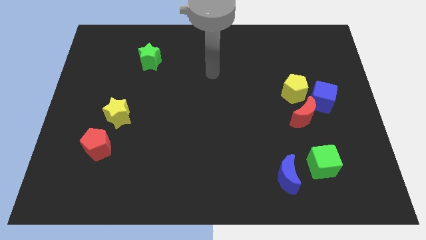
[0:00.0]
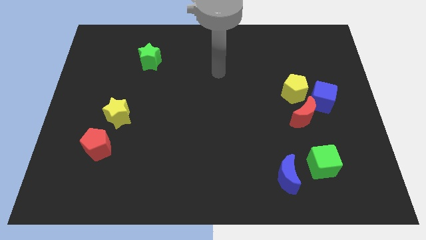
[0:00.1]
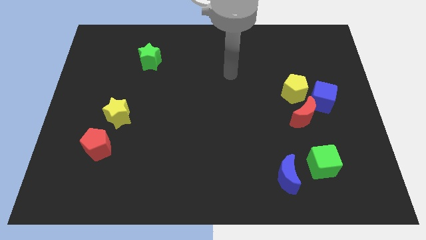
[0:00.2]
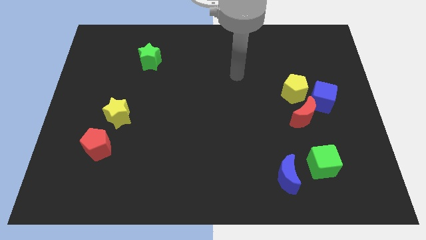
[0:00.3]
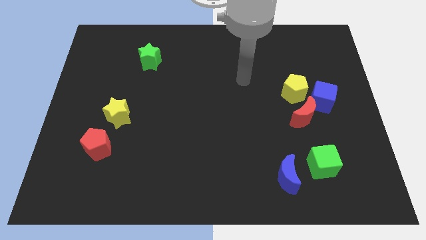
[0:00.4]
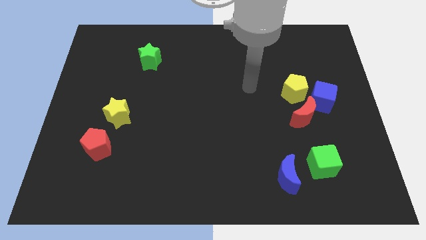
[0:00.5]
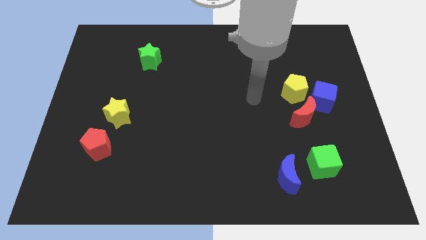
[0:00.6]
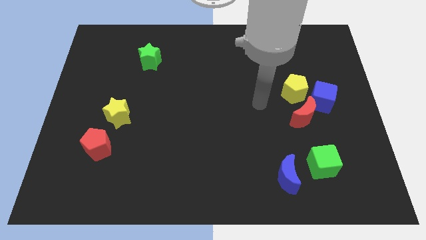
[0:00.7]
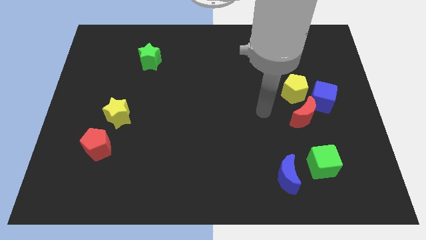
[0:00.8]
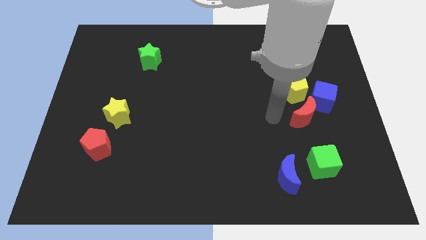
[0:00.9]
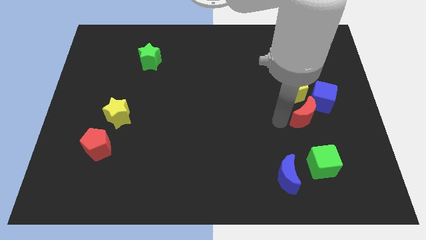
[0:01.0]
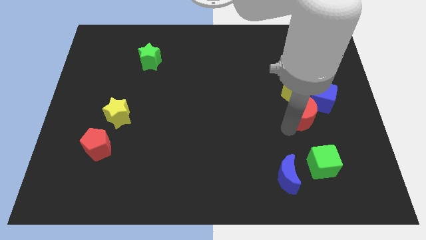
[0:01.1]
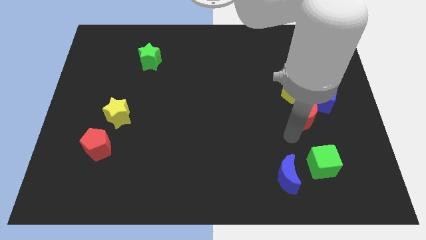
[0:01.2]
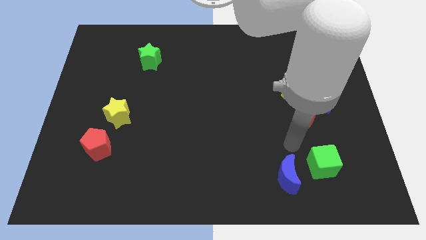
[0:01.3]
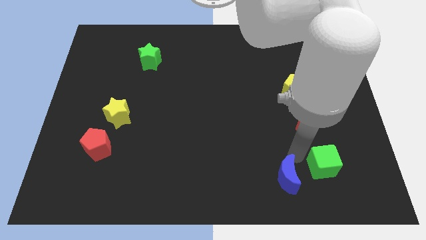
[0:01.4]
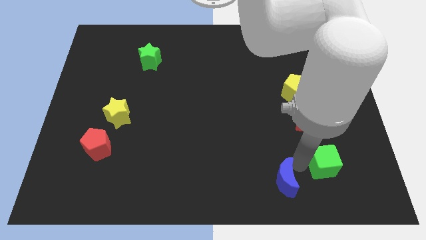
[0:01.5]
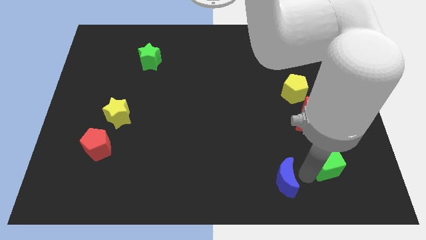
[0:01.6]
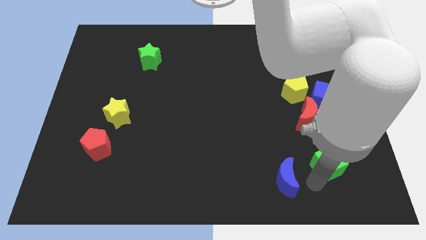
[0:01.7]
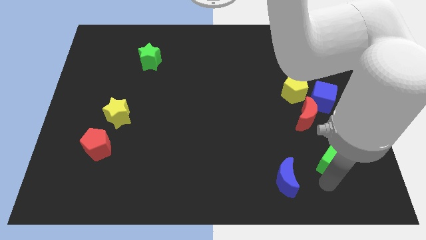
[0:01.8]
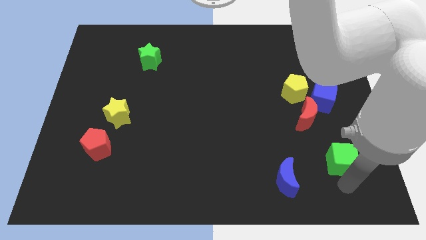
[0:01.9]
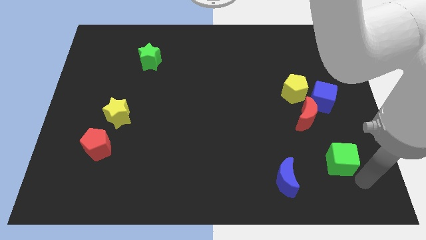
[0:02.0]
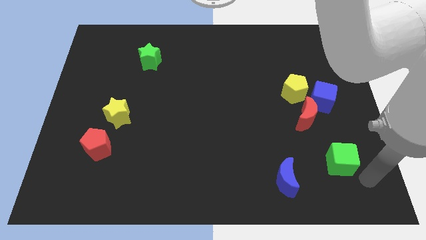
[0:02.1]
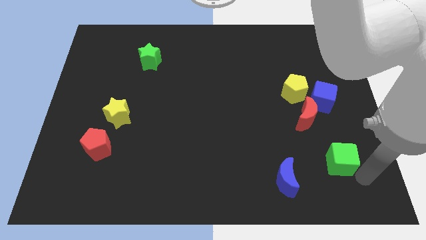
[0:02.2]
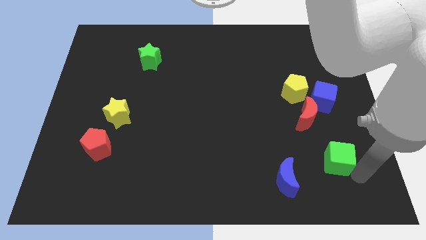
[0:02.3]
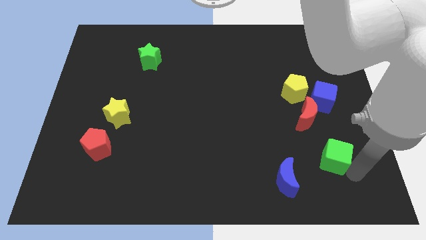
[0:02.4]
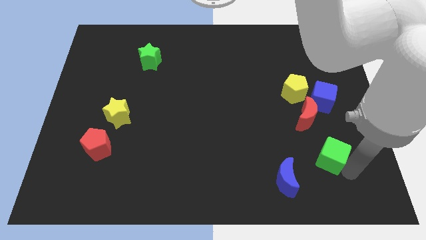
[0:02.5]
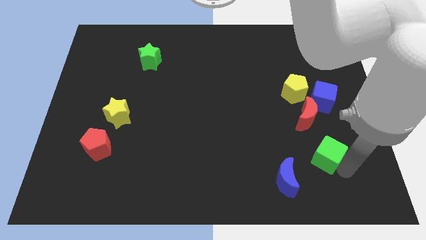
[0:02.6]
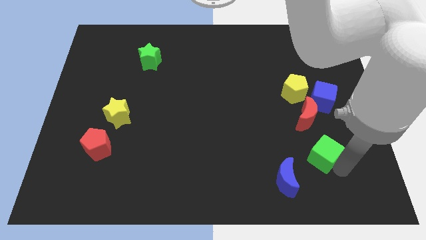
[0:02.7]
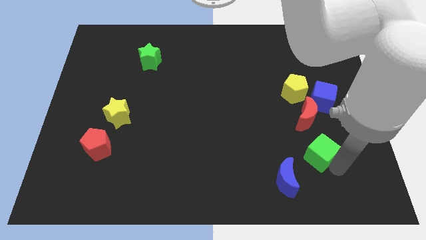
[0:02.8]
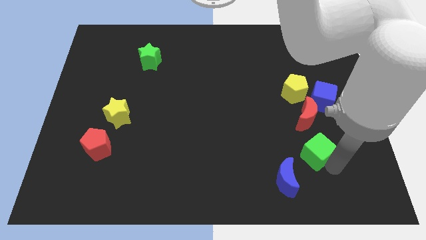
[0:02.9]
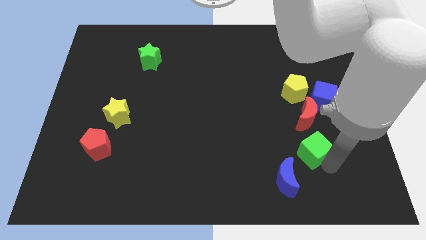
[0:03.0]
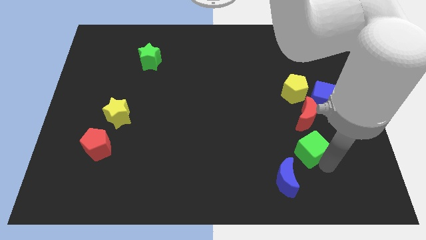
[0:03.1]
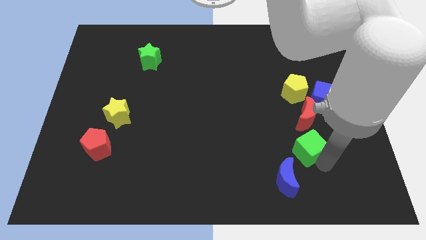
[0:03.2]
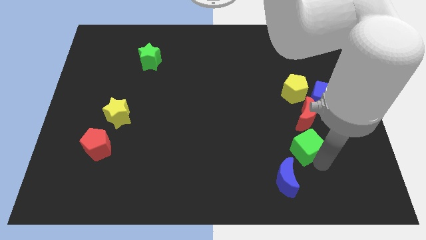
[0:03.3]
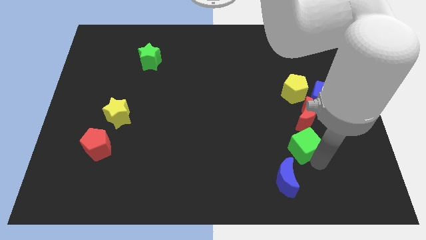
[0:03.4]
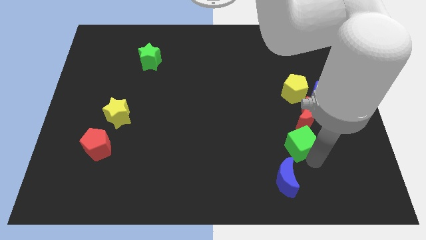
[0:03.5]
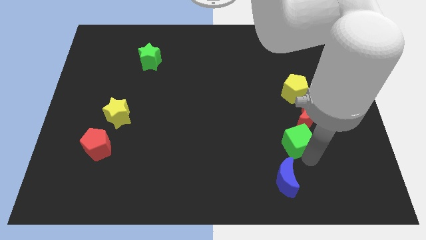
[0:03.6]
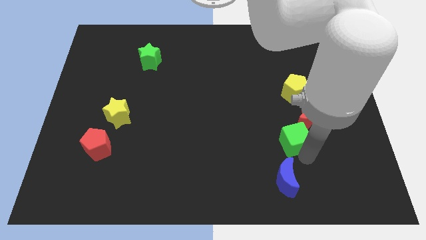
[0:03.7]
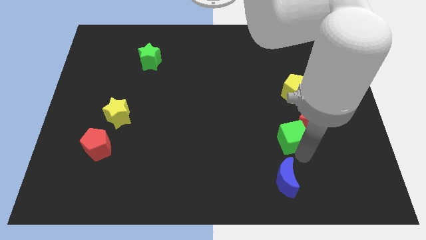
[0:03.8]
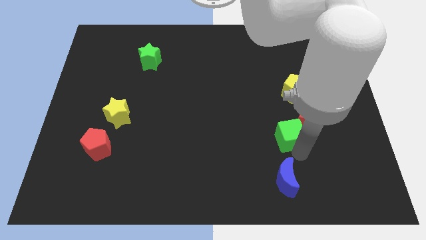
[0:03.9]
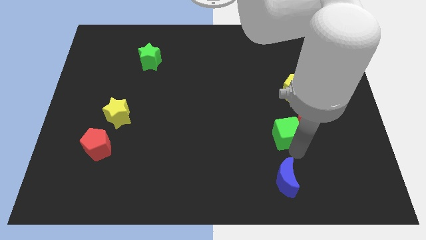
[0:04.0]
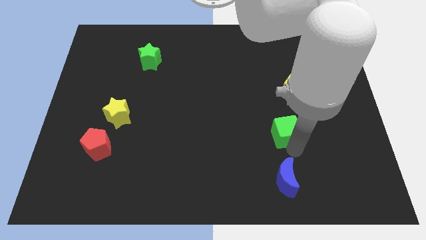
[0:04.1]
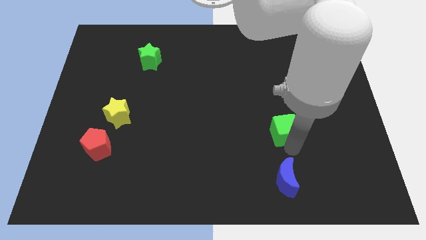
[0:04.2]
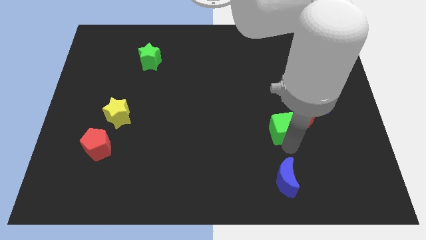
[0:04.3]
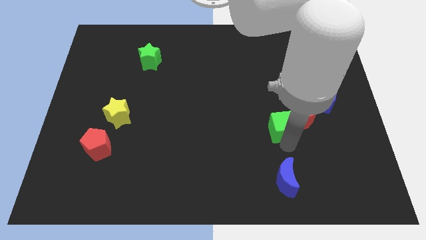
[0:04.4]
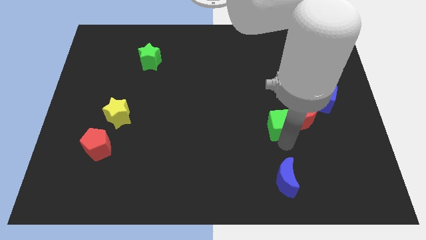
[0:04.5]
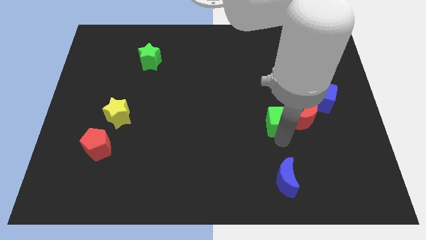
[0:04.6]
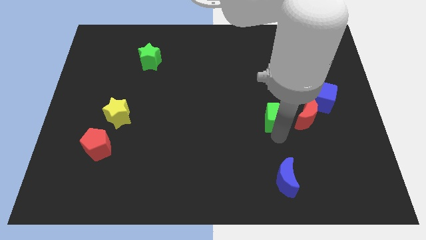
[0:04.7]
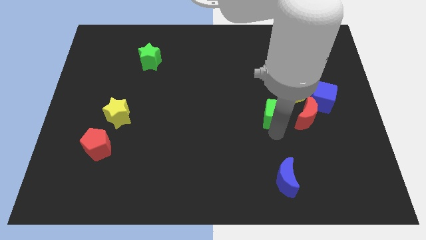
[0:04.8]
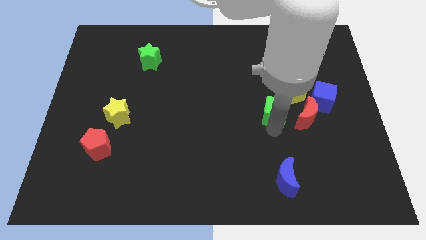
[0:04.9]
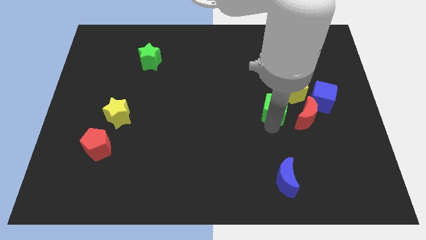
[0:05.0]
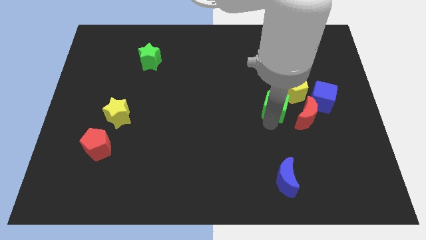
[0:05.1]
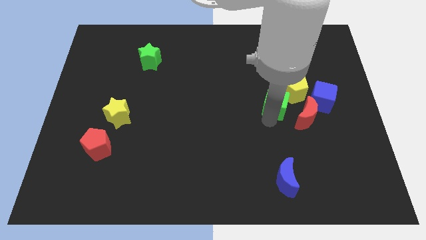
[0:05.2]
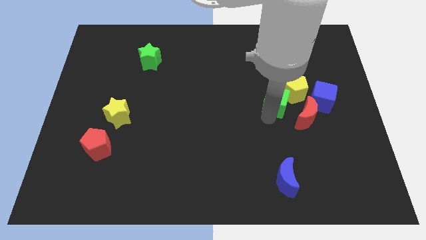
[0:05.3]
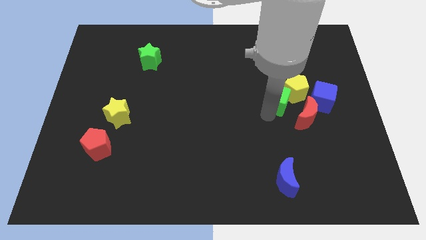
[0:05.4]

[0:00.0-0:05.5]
push the green cube close to the yellow pentagon

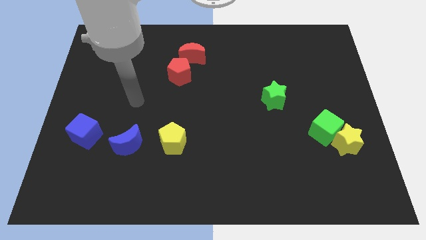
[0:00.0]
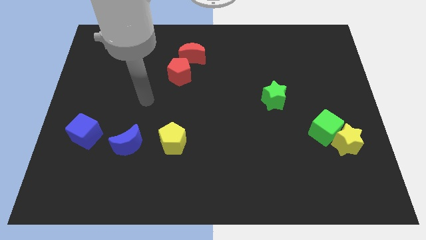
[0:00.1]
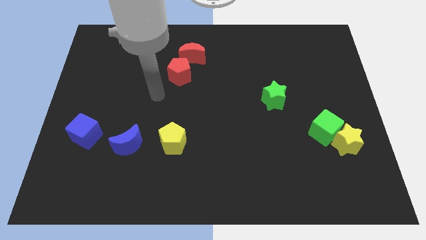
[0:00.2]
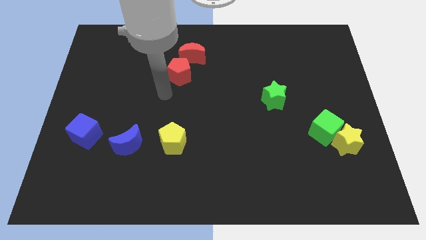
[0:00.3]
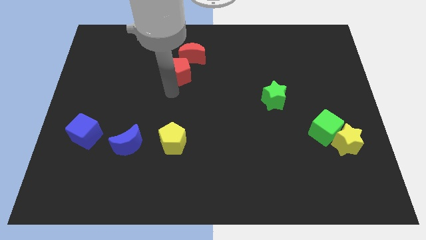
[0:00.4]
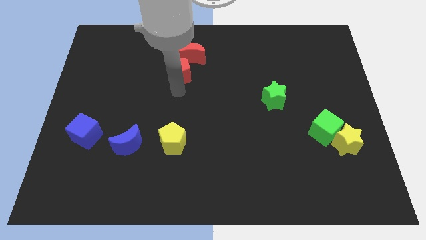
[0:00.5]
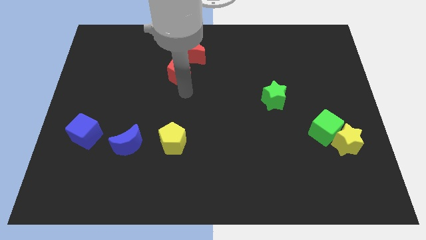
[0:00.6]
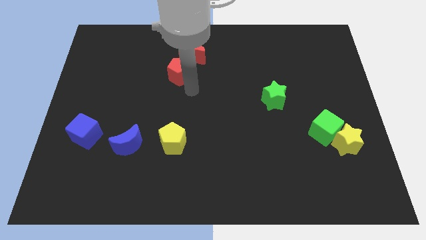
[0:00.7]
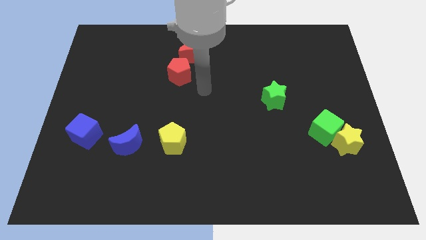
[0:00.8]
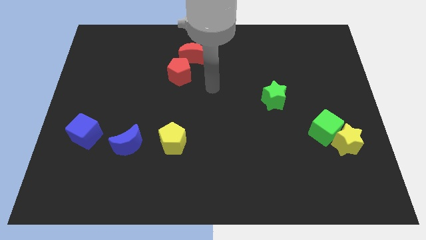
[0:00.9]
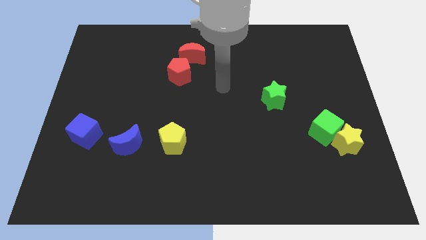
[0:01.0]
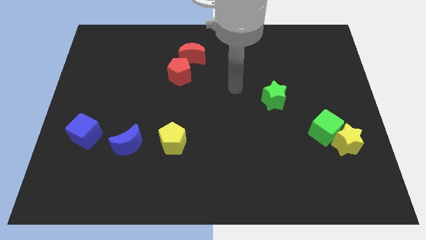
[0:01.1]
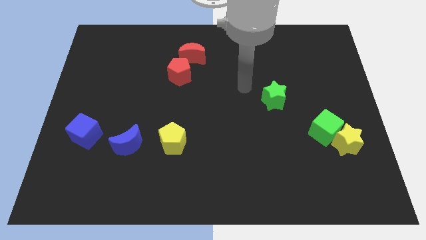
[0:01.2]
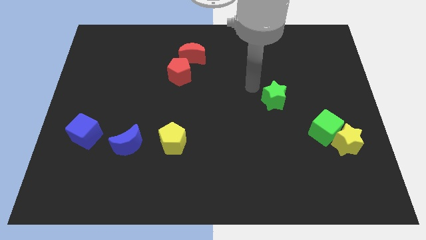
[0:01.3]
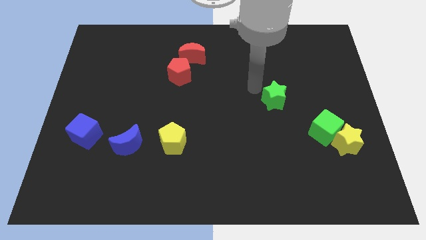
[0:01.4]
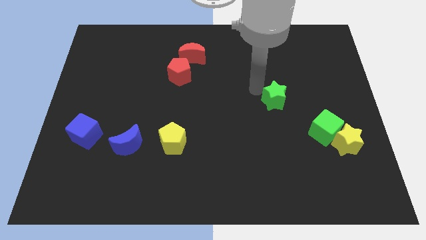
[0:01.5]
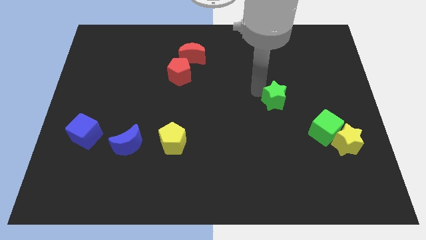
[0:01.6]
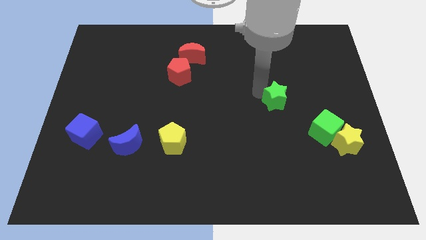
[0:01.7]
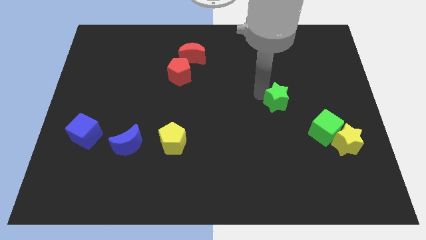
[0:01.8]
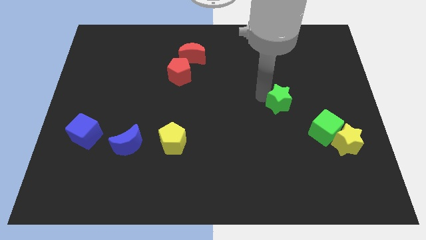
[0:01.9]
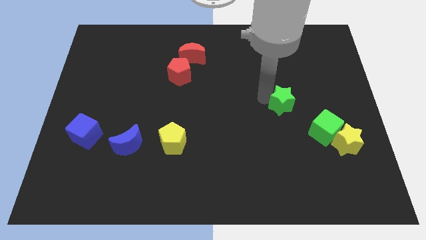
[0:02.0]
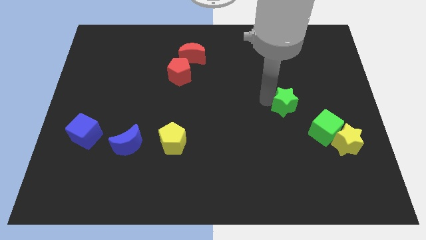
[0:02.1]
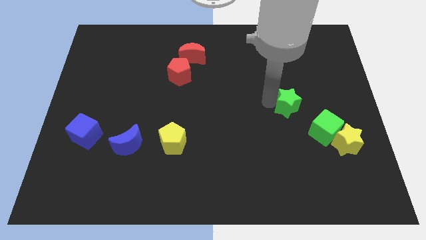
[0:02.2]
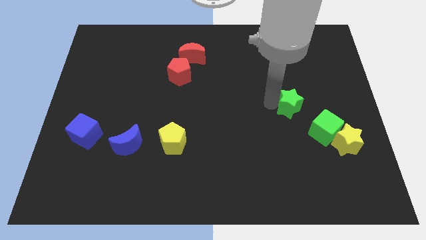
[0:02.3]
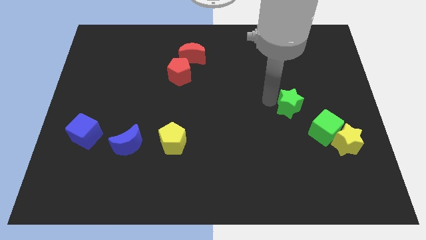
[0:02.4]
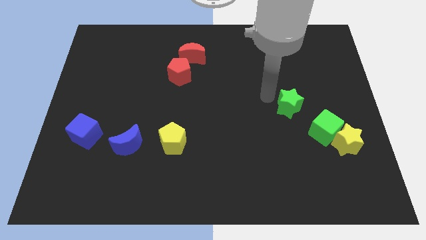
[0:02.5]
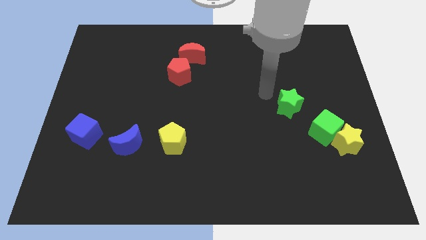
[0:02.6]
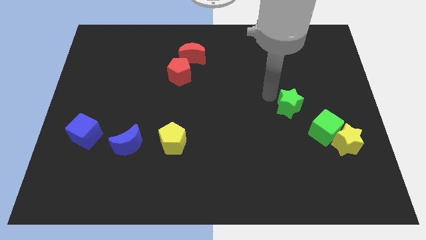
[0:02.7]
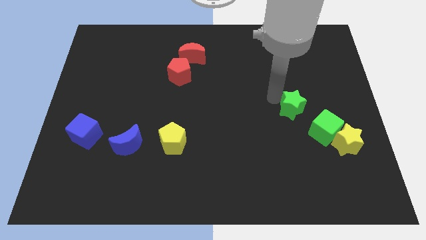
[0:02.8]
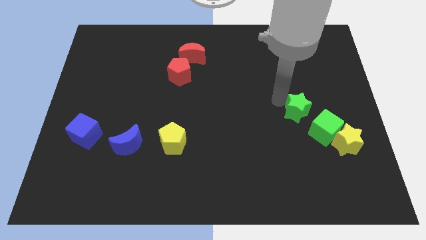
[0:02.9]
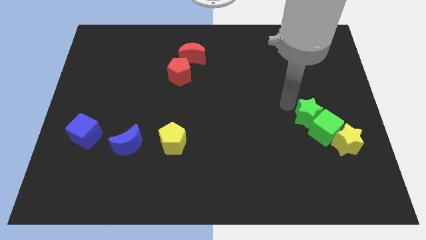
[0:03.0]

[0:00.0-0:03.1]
push the green star towards the green cube
